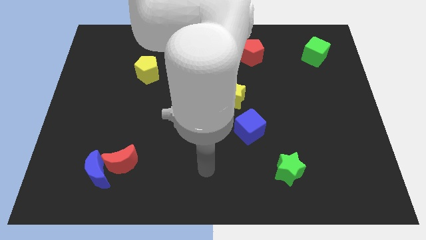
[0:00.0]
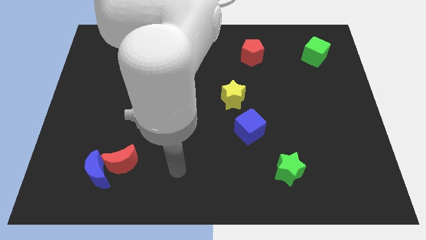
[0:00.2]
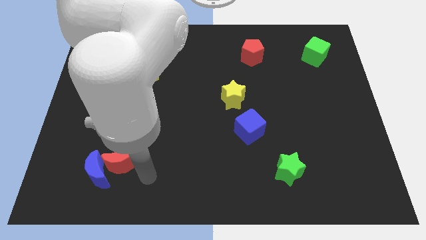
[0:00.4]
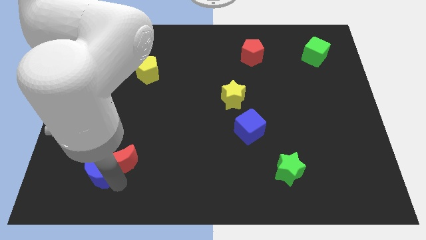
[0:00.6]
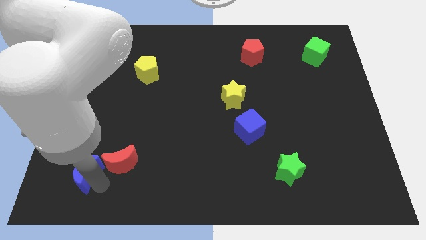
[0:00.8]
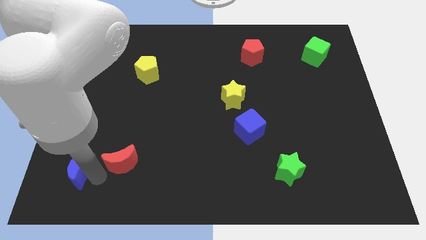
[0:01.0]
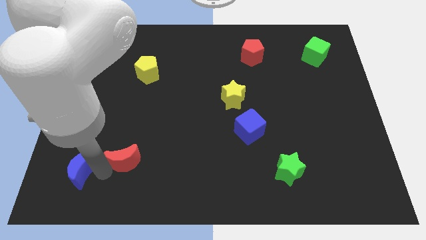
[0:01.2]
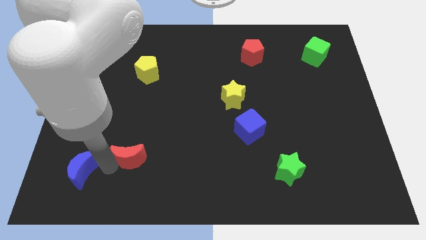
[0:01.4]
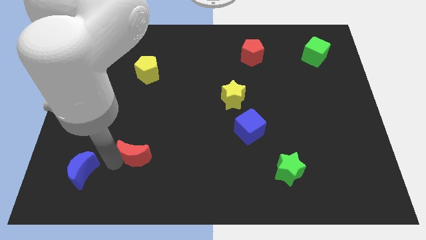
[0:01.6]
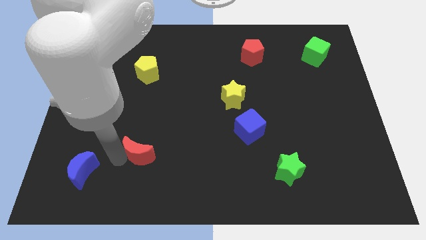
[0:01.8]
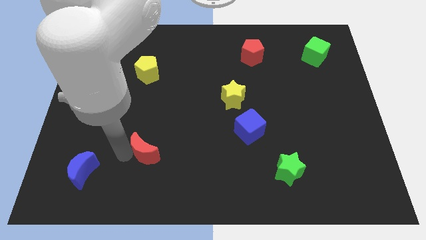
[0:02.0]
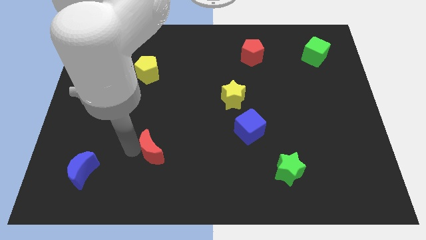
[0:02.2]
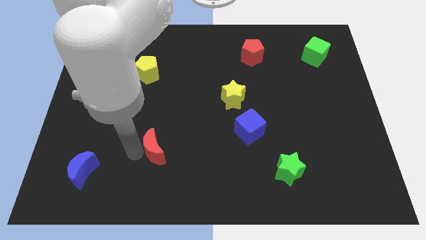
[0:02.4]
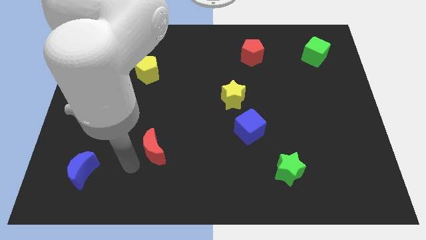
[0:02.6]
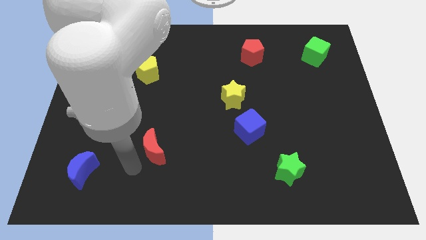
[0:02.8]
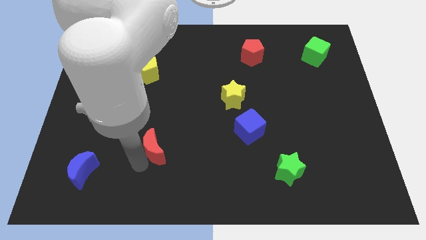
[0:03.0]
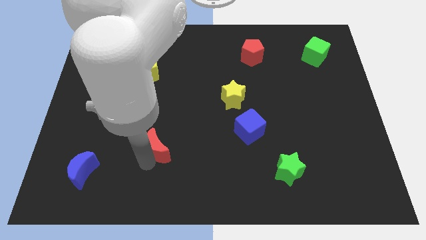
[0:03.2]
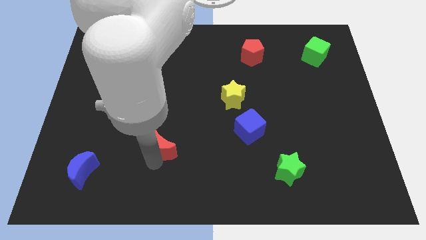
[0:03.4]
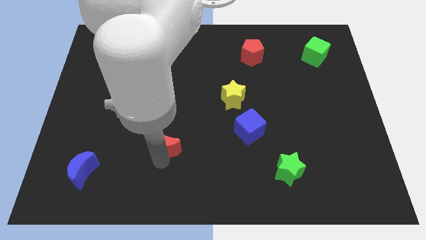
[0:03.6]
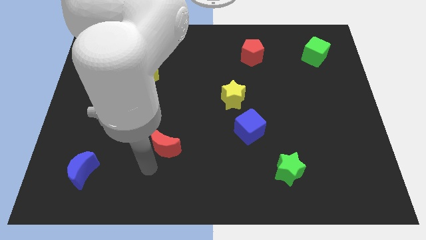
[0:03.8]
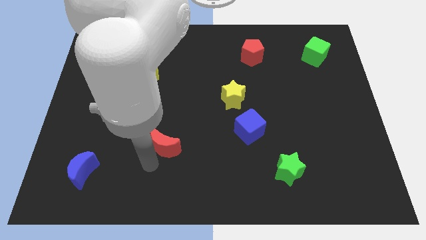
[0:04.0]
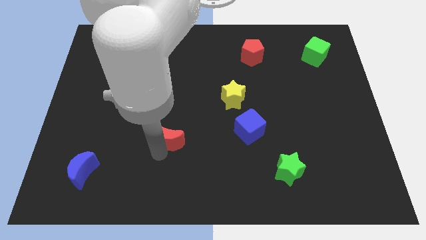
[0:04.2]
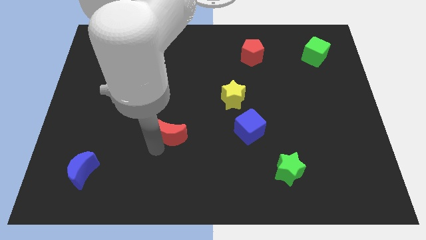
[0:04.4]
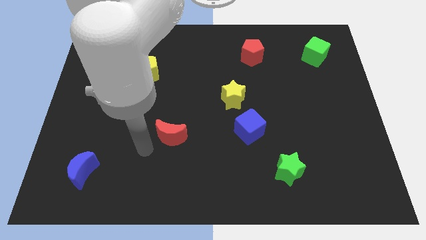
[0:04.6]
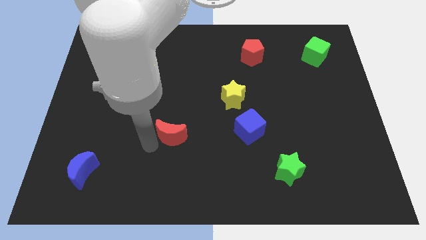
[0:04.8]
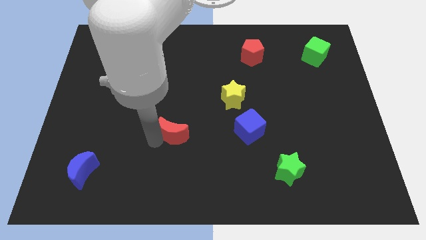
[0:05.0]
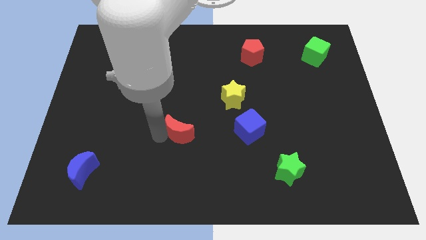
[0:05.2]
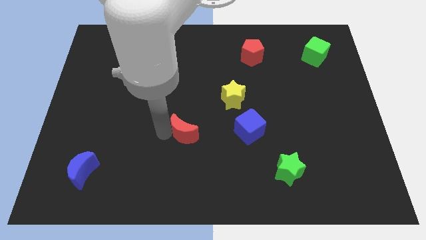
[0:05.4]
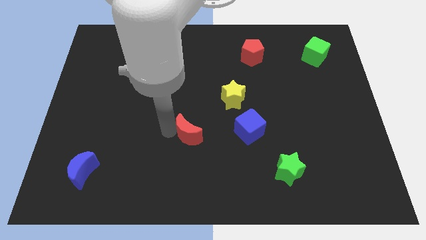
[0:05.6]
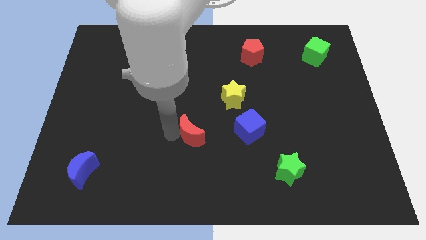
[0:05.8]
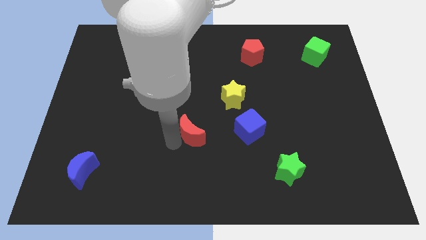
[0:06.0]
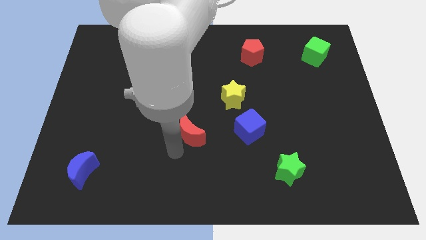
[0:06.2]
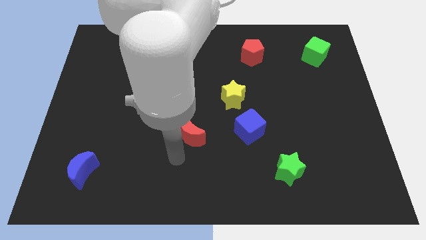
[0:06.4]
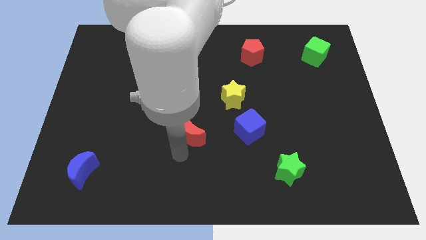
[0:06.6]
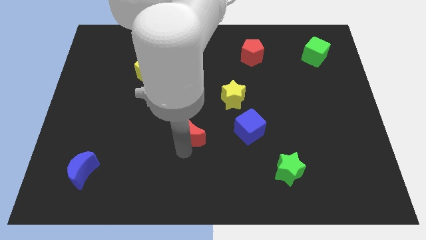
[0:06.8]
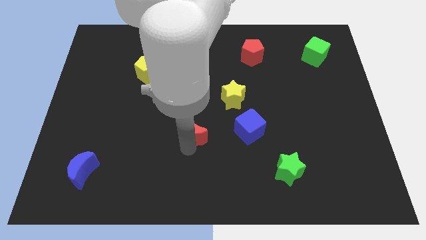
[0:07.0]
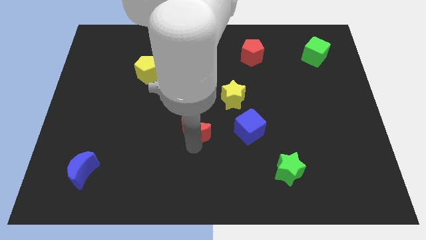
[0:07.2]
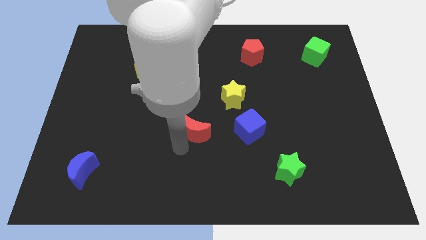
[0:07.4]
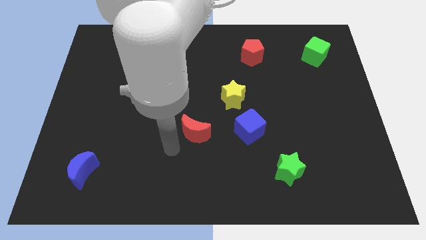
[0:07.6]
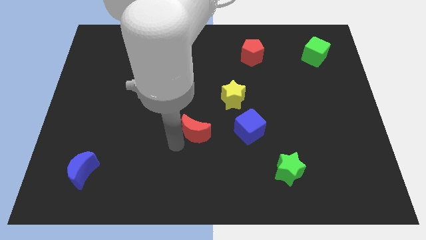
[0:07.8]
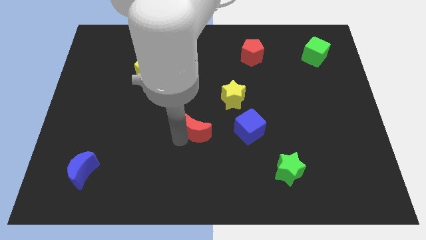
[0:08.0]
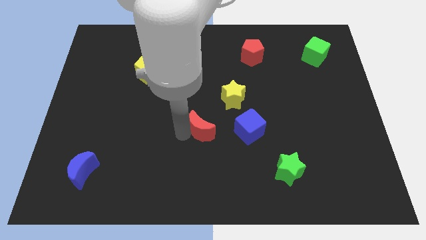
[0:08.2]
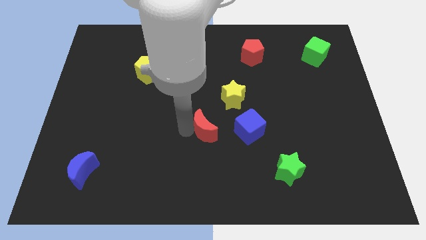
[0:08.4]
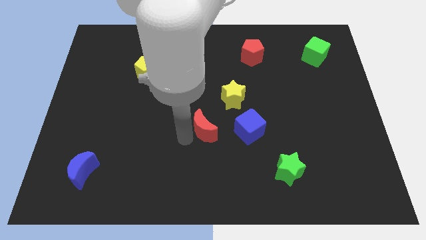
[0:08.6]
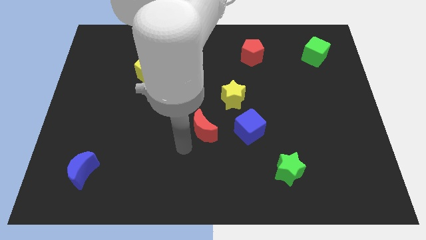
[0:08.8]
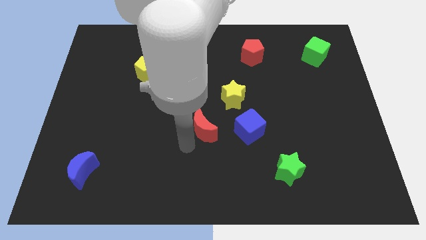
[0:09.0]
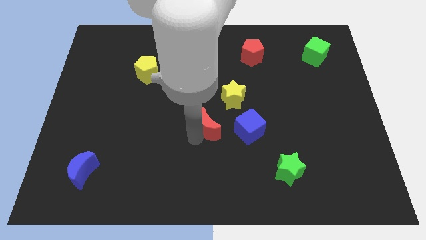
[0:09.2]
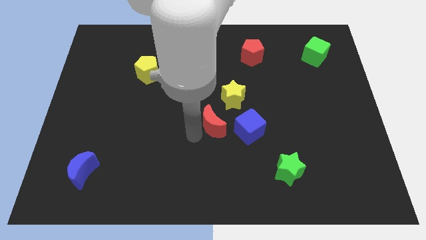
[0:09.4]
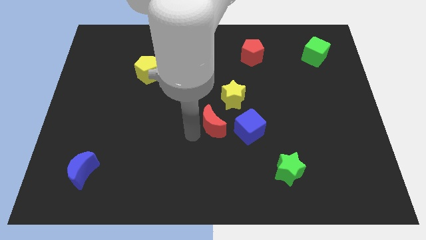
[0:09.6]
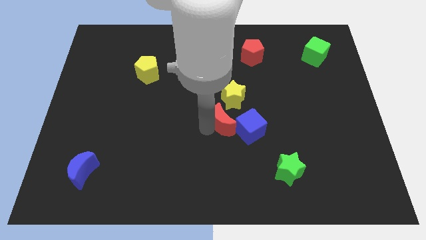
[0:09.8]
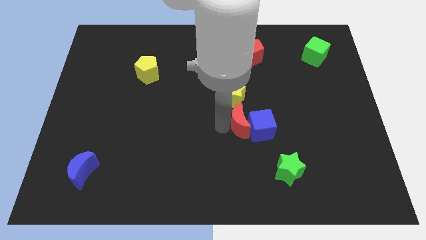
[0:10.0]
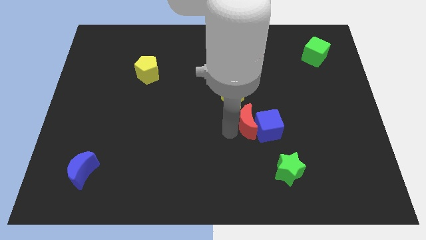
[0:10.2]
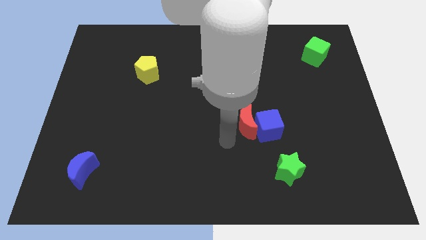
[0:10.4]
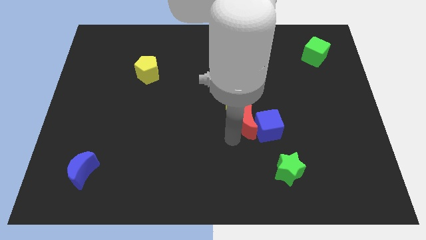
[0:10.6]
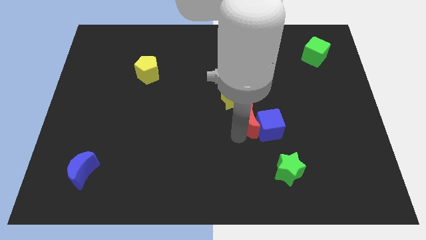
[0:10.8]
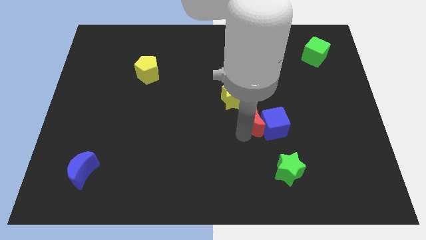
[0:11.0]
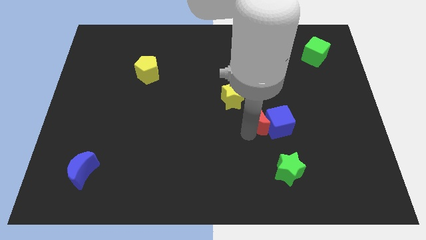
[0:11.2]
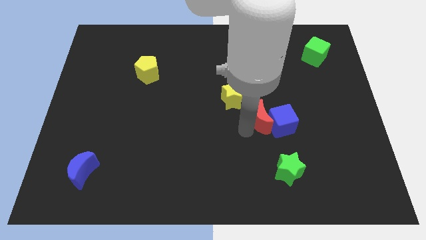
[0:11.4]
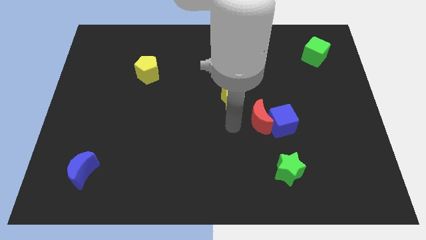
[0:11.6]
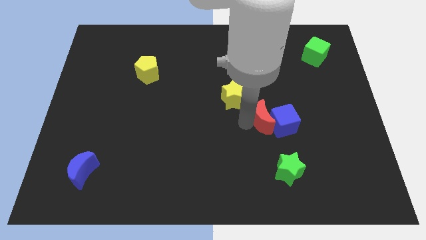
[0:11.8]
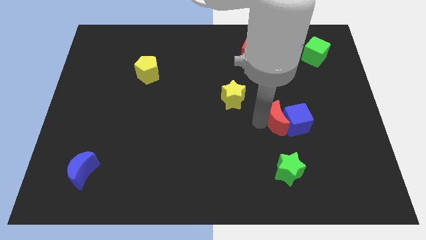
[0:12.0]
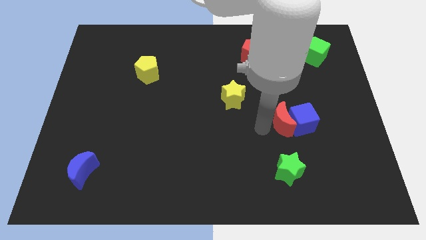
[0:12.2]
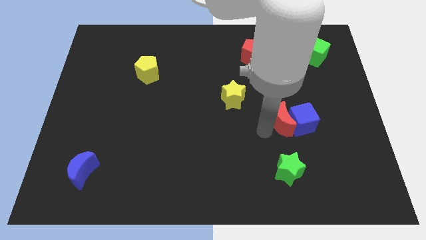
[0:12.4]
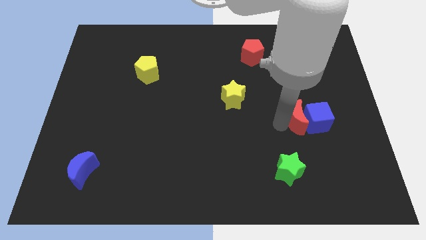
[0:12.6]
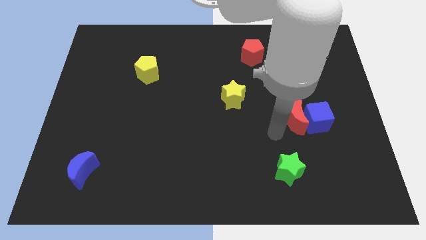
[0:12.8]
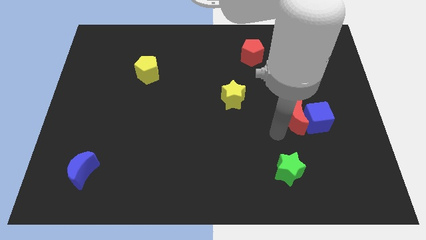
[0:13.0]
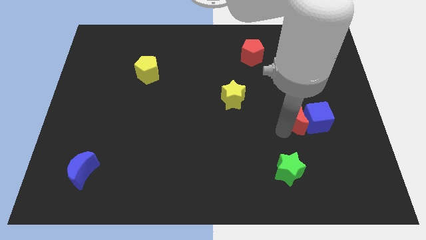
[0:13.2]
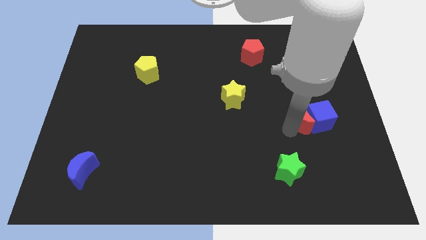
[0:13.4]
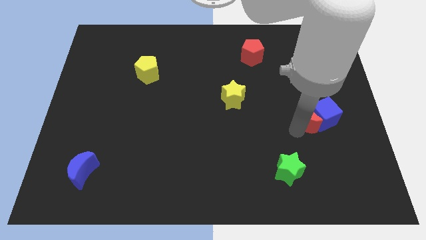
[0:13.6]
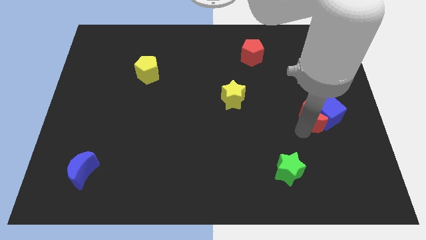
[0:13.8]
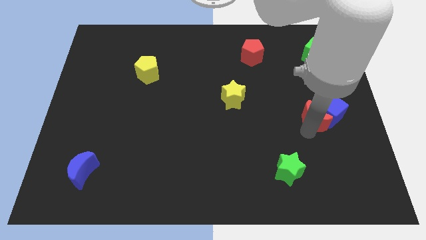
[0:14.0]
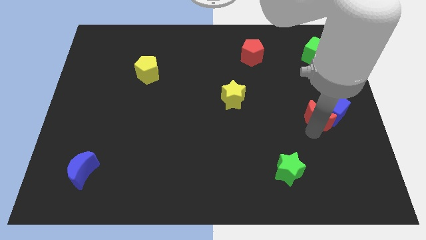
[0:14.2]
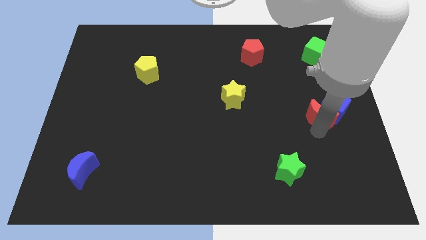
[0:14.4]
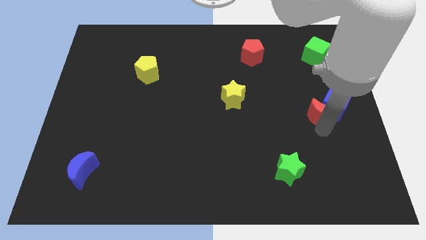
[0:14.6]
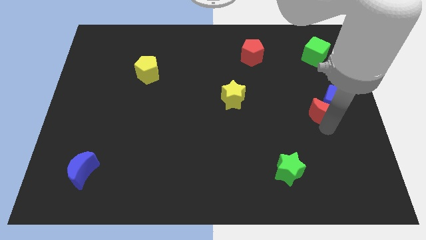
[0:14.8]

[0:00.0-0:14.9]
push the red moon to the right side of the board
